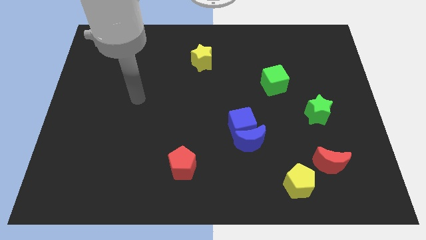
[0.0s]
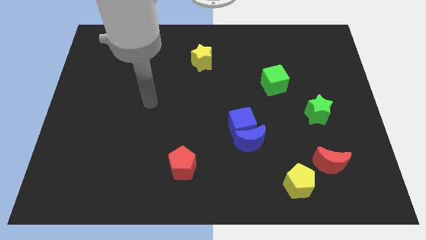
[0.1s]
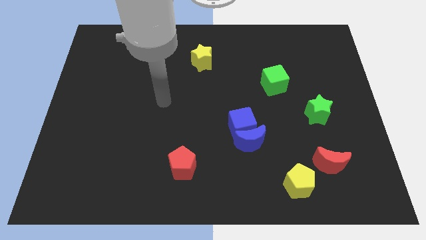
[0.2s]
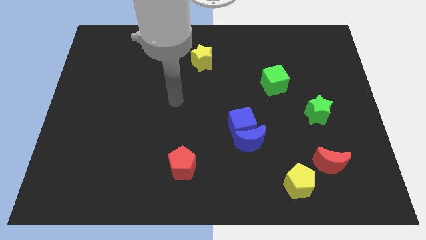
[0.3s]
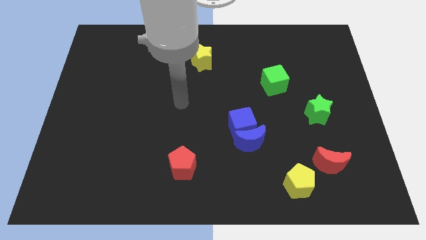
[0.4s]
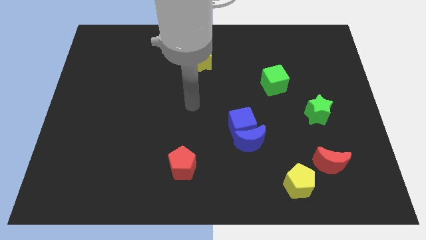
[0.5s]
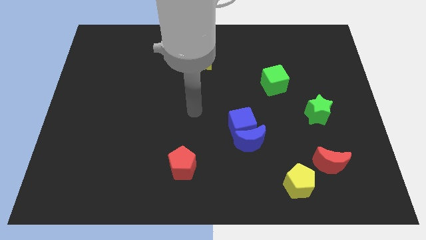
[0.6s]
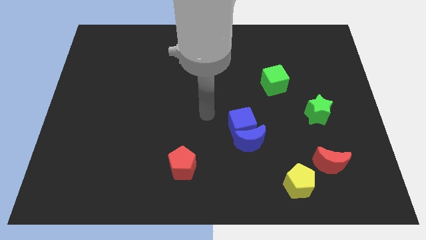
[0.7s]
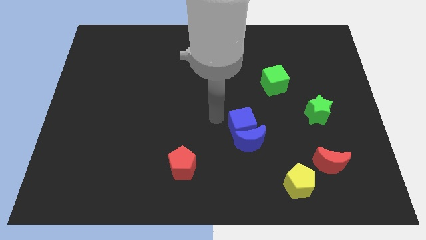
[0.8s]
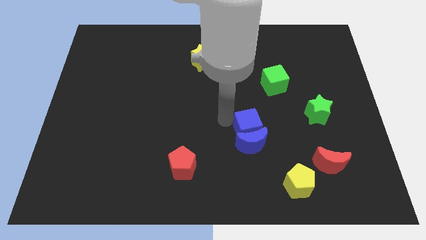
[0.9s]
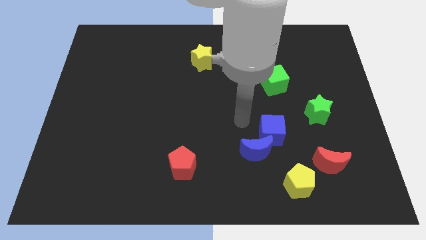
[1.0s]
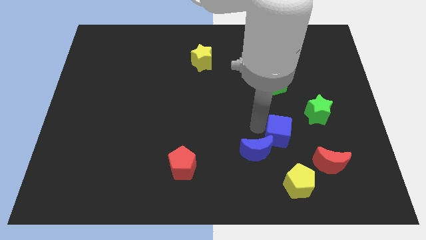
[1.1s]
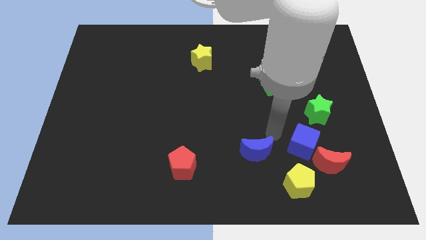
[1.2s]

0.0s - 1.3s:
move the blue moon away from the blue cube

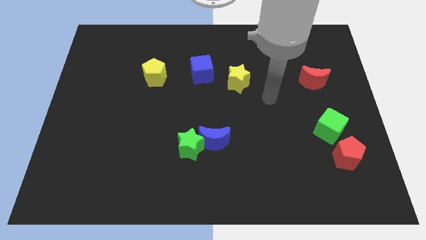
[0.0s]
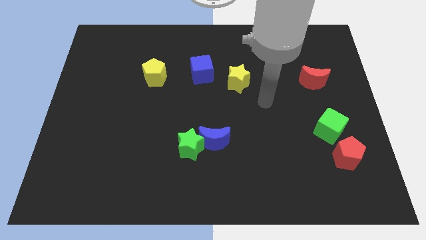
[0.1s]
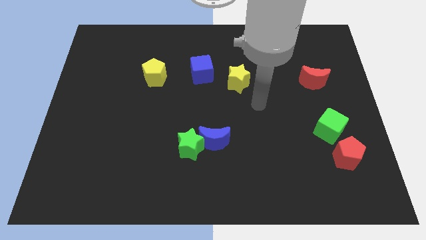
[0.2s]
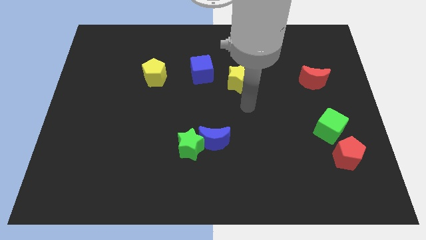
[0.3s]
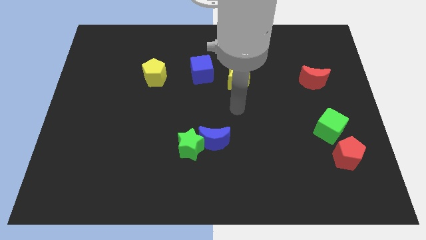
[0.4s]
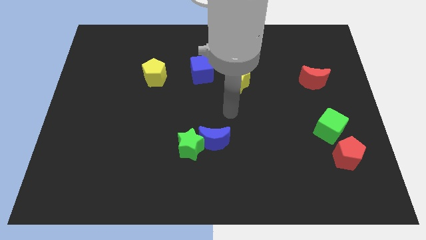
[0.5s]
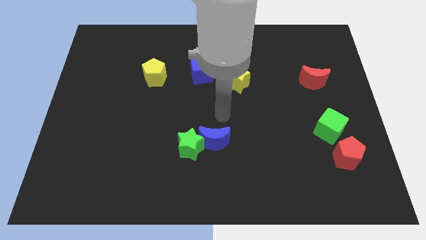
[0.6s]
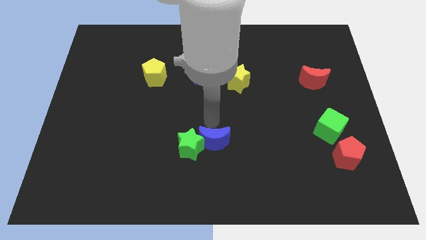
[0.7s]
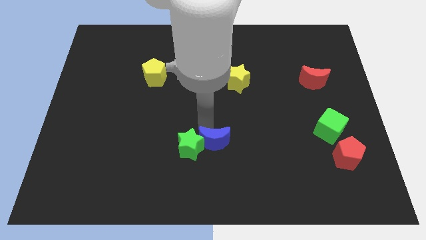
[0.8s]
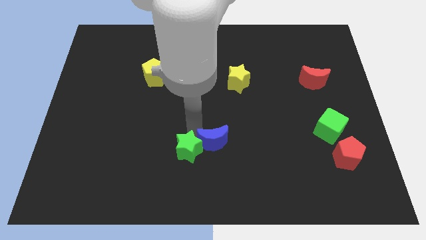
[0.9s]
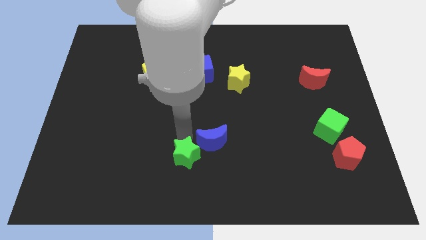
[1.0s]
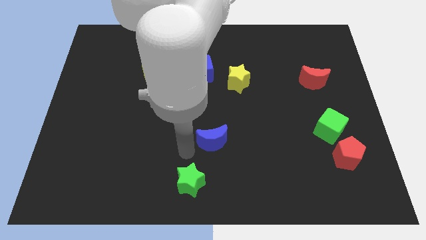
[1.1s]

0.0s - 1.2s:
separate the blue moon from the green star

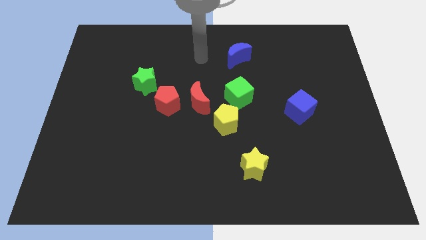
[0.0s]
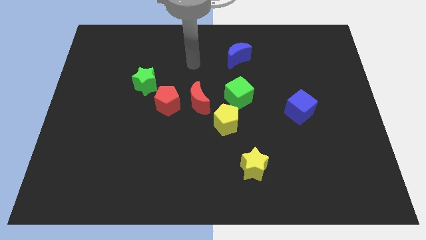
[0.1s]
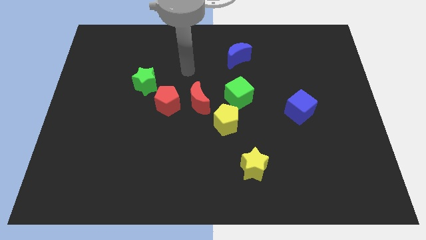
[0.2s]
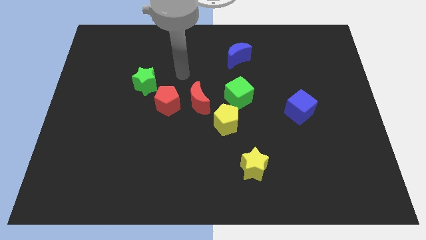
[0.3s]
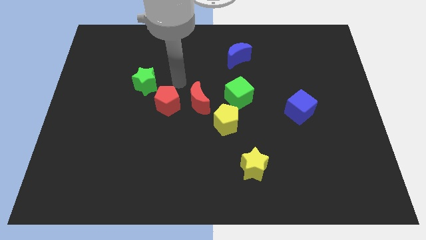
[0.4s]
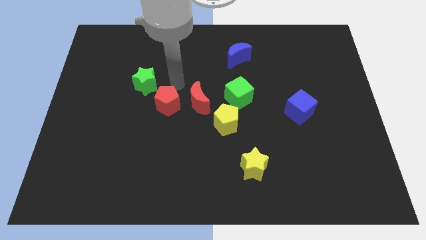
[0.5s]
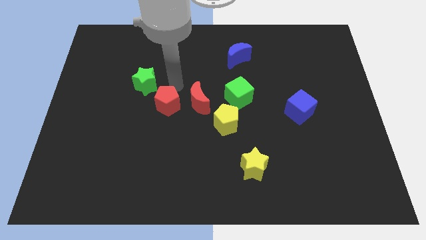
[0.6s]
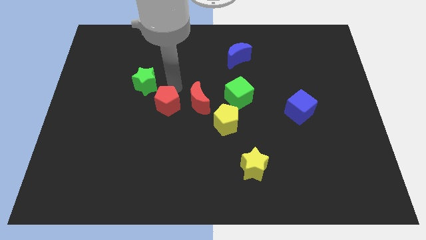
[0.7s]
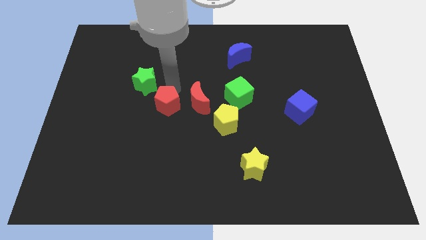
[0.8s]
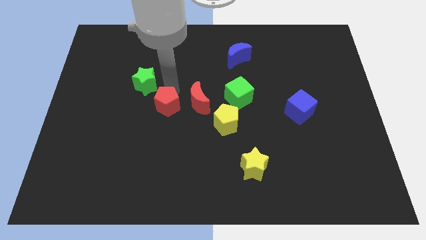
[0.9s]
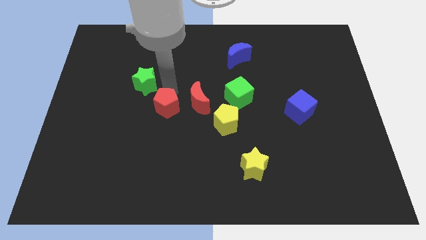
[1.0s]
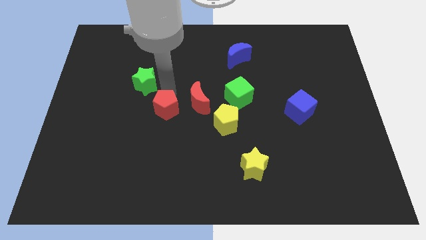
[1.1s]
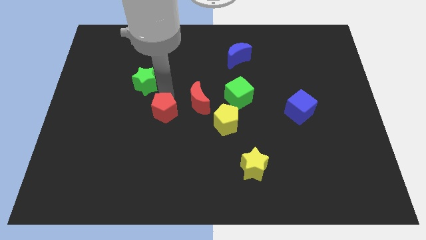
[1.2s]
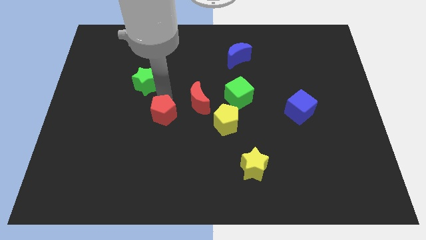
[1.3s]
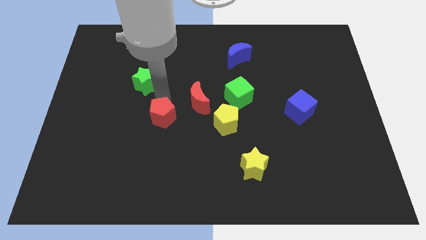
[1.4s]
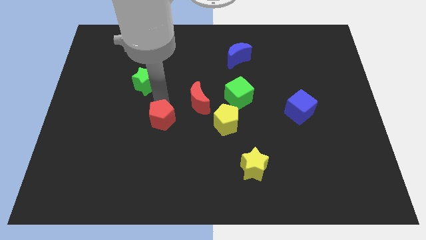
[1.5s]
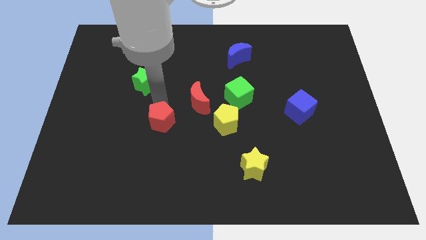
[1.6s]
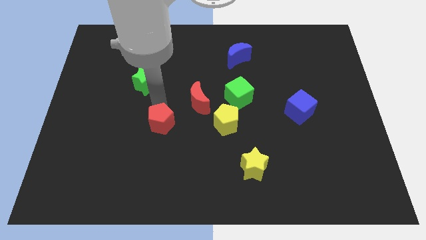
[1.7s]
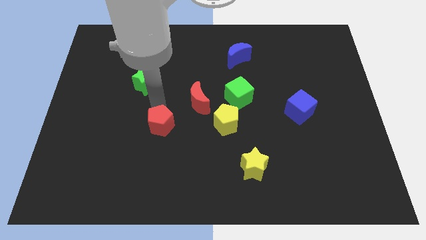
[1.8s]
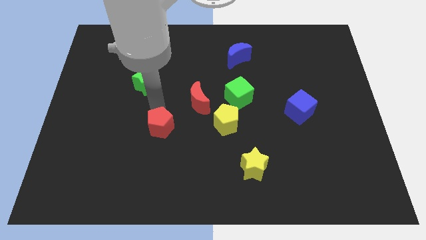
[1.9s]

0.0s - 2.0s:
move the red pentagon away from the red moon and green star

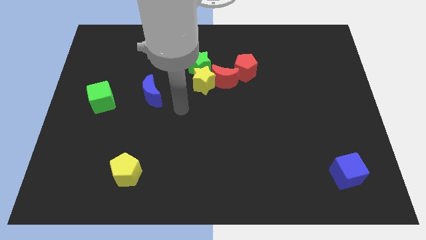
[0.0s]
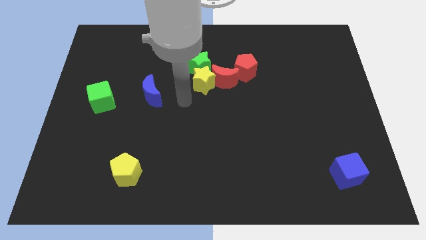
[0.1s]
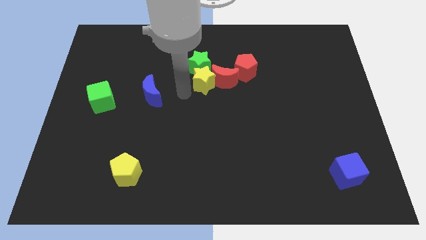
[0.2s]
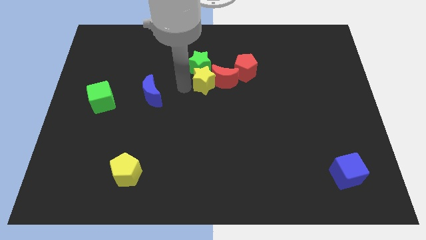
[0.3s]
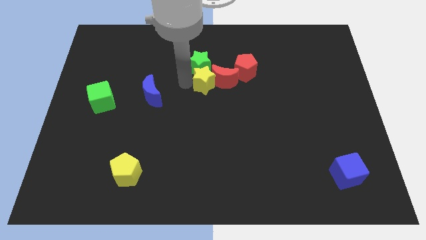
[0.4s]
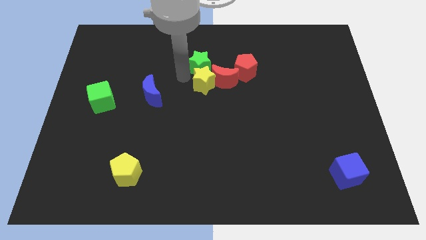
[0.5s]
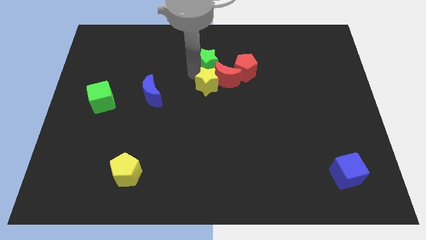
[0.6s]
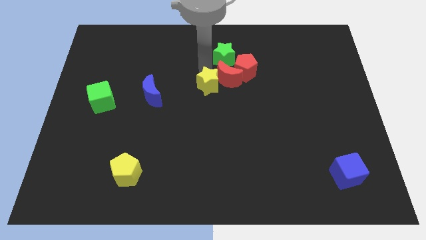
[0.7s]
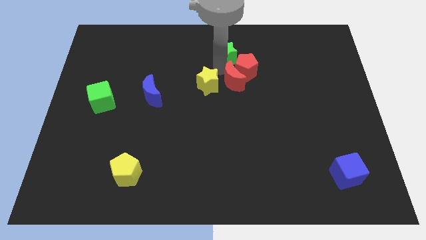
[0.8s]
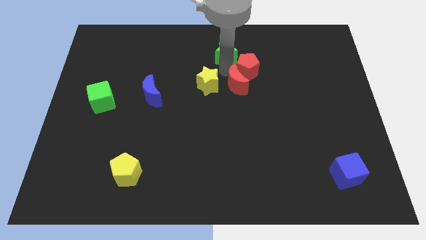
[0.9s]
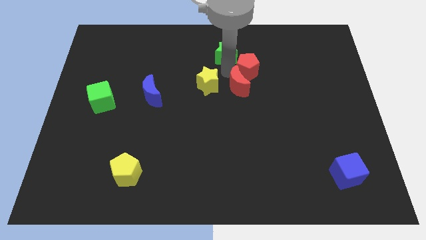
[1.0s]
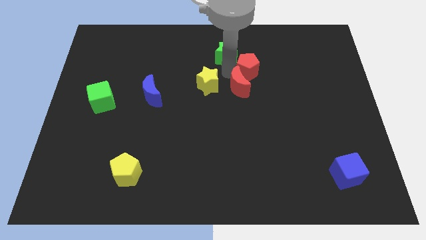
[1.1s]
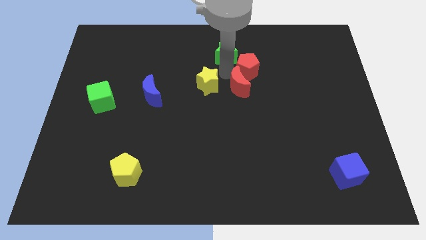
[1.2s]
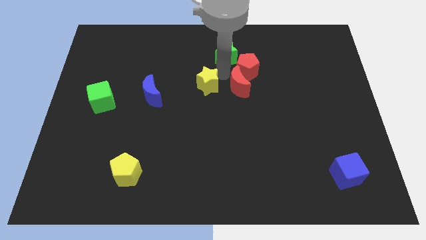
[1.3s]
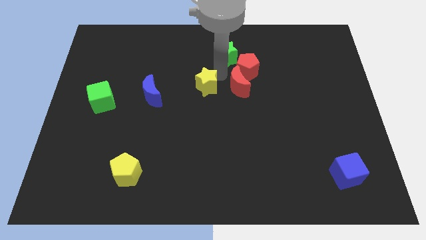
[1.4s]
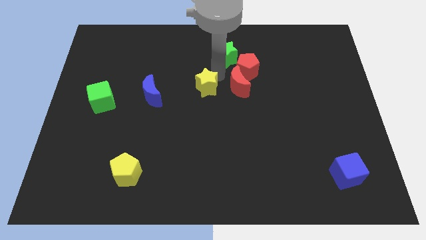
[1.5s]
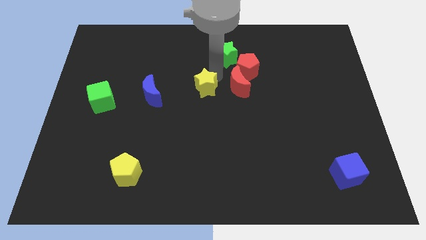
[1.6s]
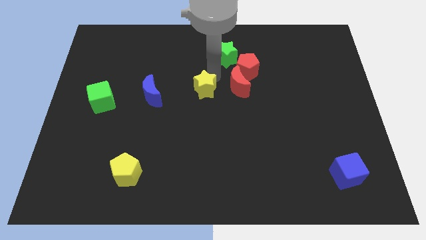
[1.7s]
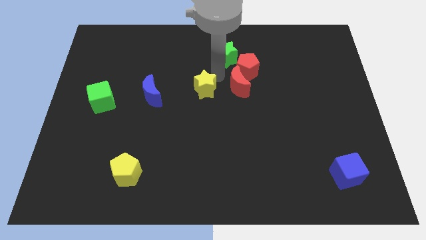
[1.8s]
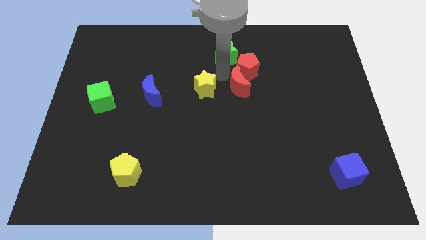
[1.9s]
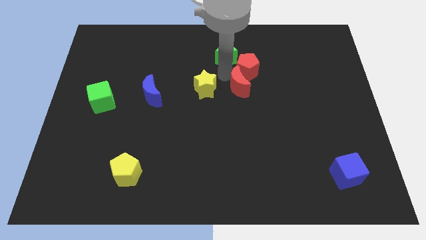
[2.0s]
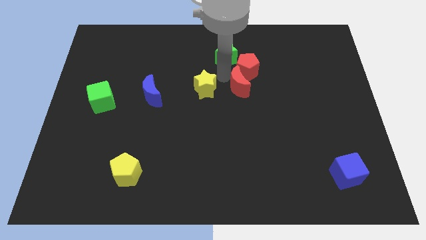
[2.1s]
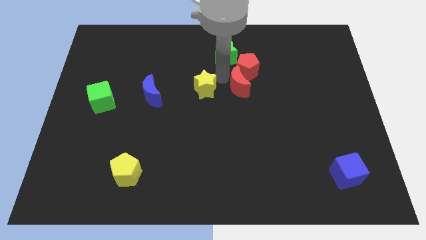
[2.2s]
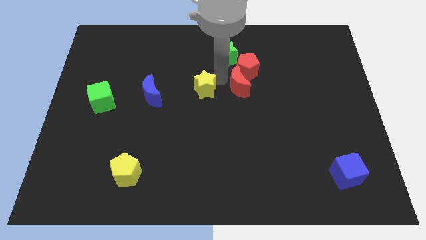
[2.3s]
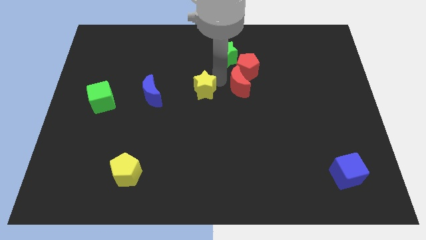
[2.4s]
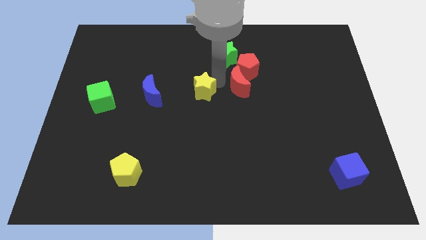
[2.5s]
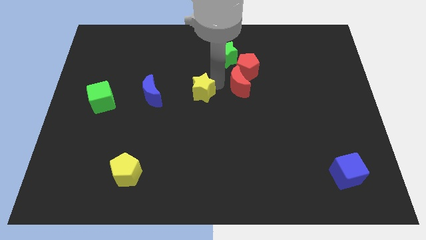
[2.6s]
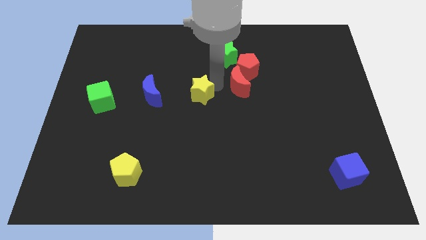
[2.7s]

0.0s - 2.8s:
separate the yellow star from the green star and red moon

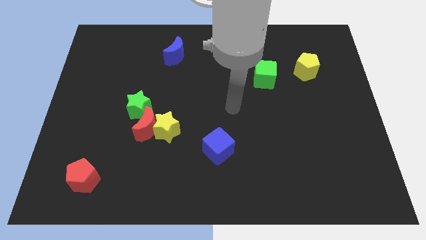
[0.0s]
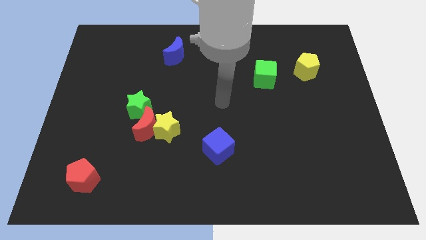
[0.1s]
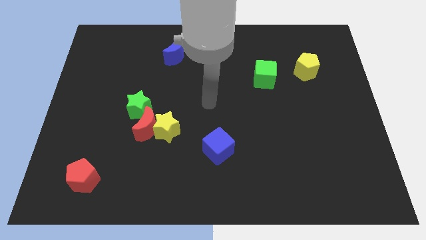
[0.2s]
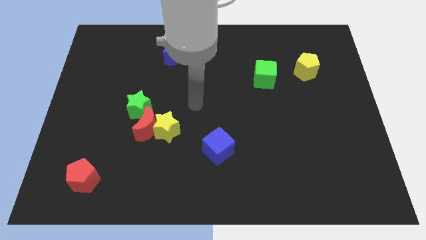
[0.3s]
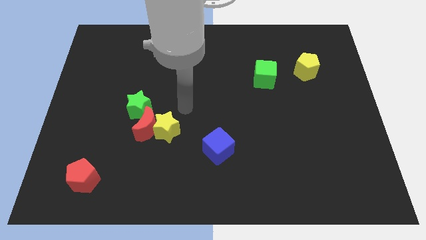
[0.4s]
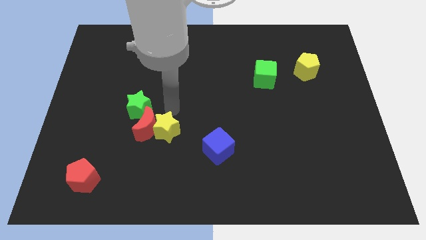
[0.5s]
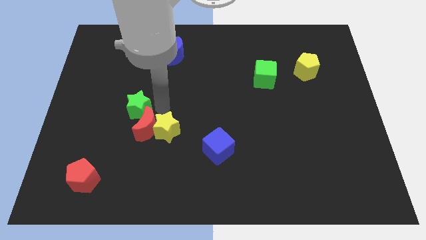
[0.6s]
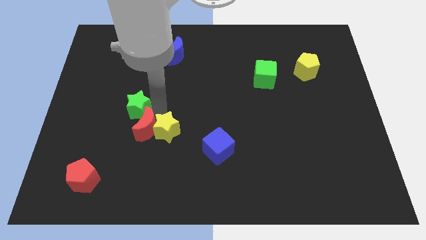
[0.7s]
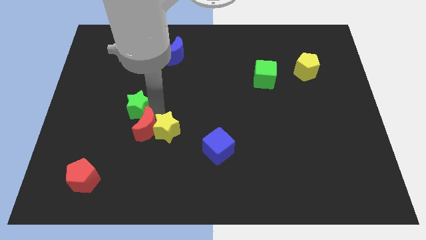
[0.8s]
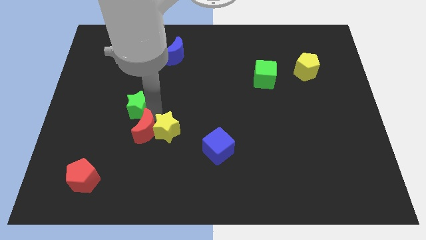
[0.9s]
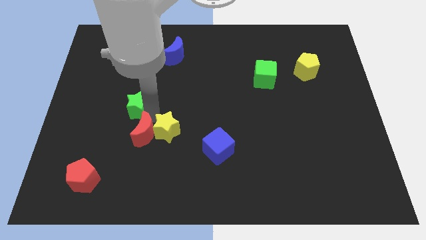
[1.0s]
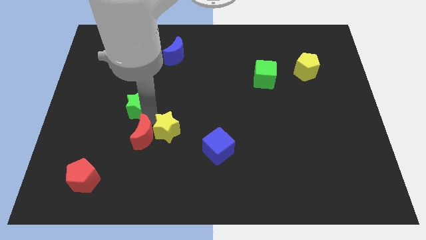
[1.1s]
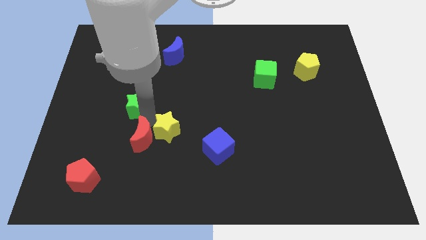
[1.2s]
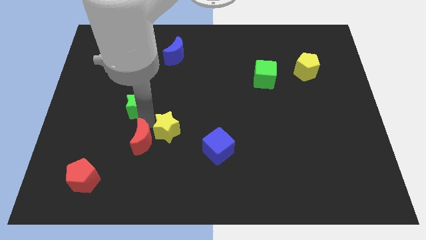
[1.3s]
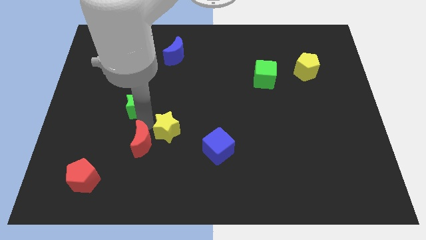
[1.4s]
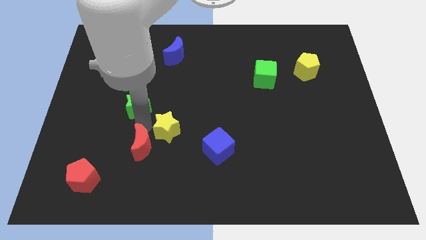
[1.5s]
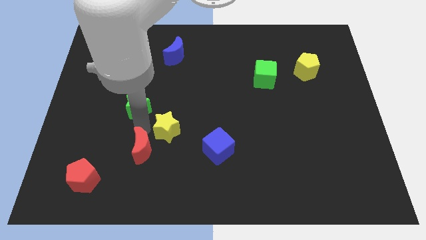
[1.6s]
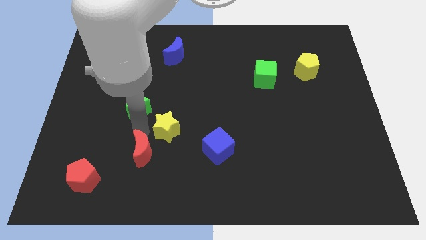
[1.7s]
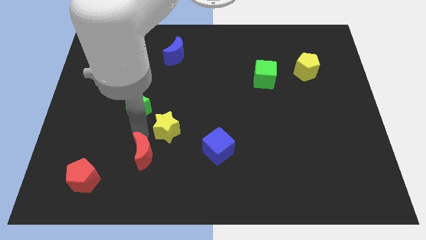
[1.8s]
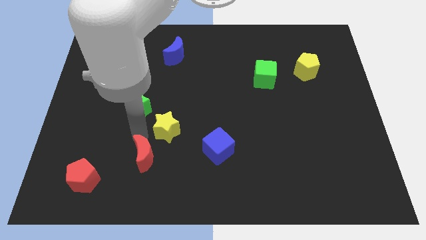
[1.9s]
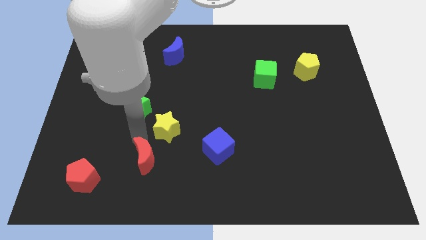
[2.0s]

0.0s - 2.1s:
separate the red moon from the yellow star and green star
